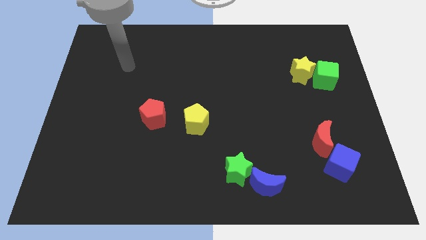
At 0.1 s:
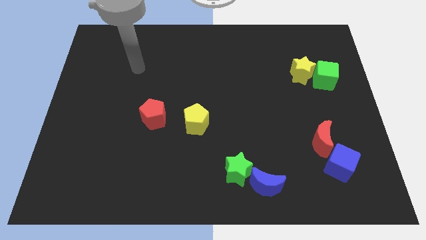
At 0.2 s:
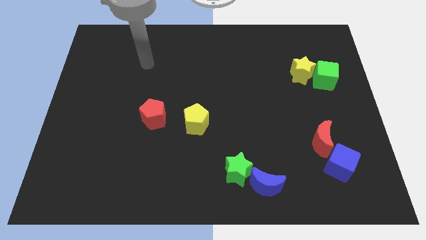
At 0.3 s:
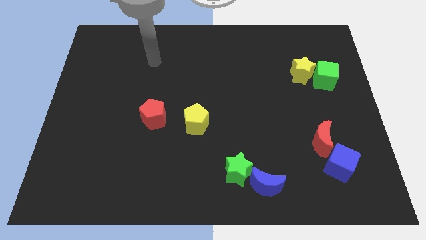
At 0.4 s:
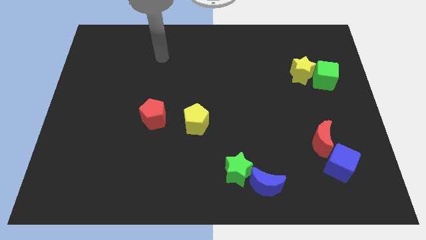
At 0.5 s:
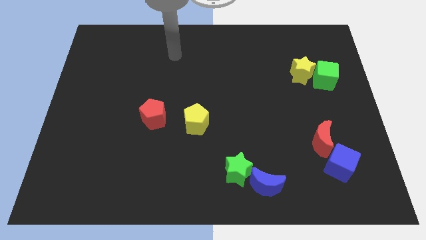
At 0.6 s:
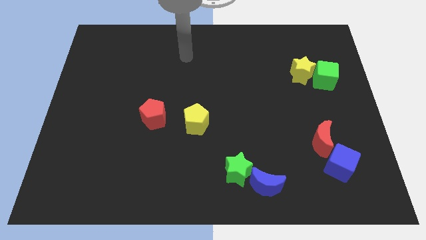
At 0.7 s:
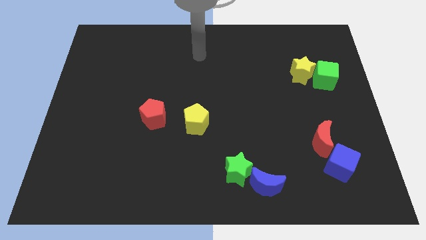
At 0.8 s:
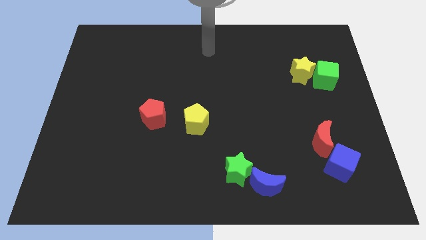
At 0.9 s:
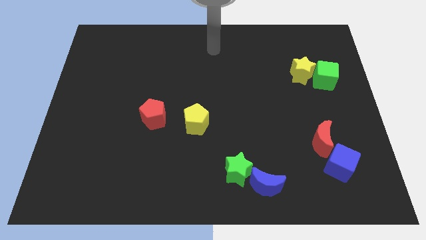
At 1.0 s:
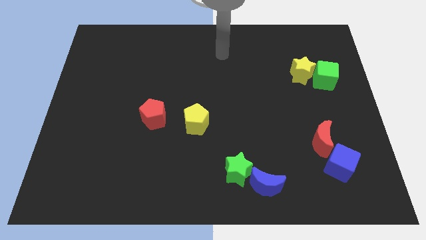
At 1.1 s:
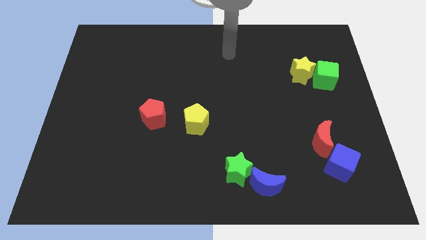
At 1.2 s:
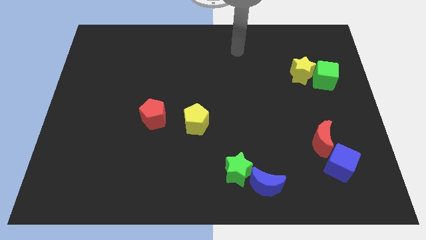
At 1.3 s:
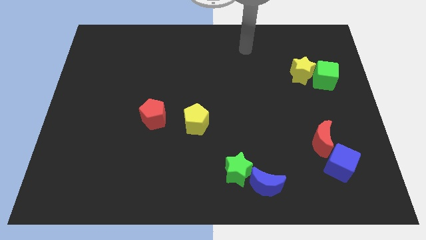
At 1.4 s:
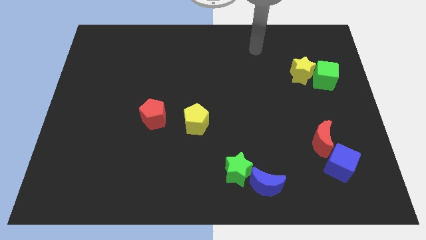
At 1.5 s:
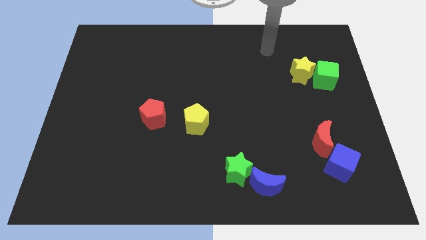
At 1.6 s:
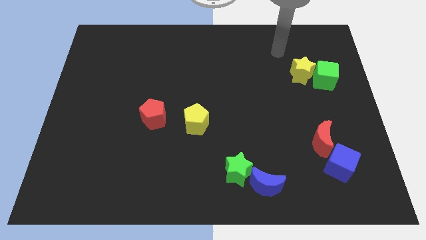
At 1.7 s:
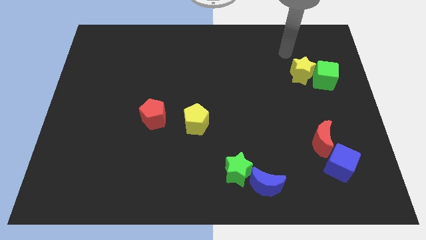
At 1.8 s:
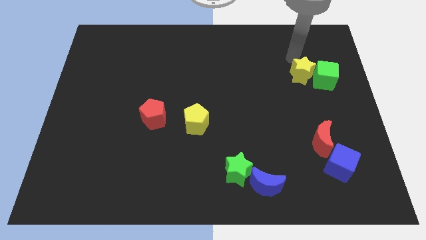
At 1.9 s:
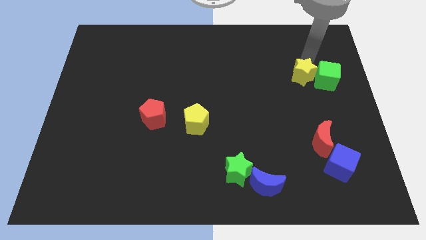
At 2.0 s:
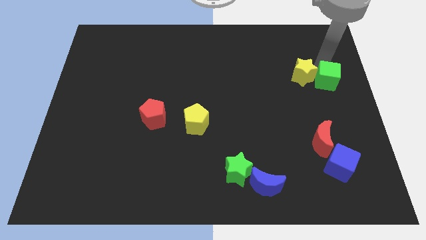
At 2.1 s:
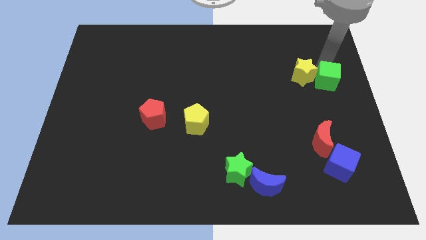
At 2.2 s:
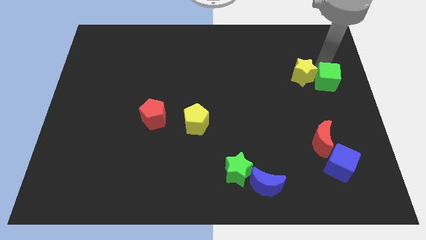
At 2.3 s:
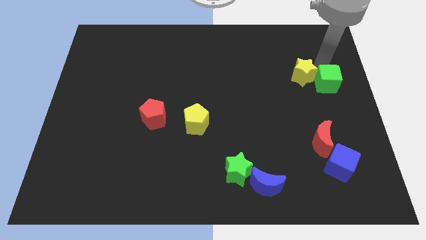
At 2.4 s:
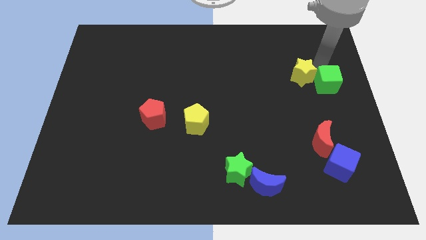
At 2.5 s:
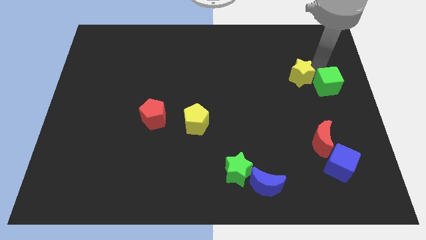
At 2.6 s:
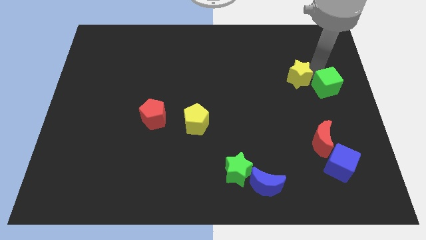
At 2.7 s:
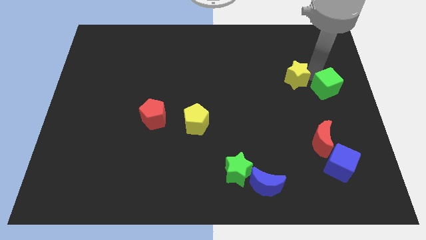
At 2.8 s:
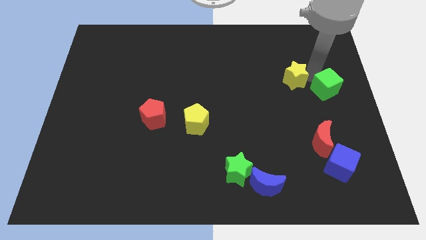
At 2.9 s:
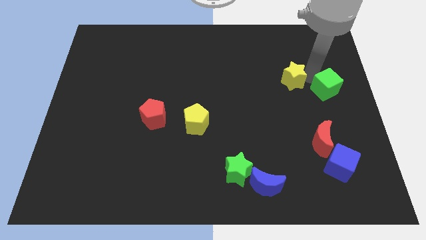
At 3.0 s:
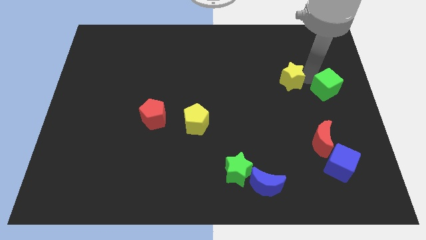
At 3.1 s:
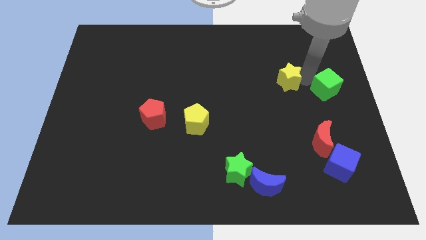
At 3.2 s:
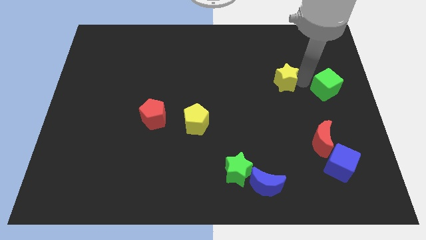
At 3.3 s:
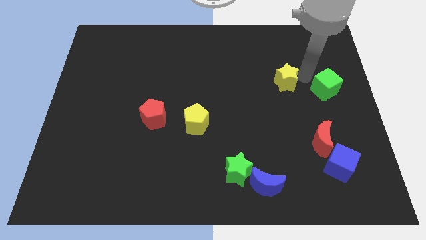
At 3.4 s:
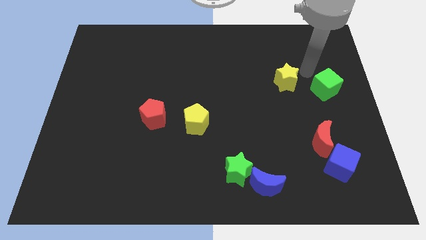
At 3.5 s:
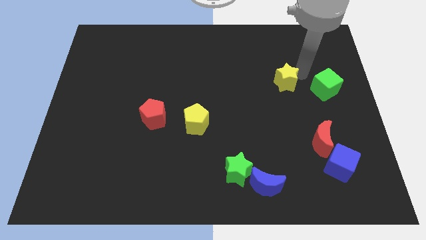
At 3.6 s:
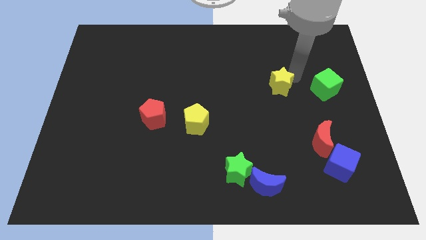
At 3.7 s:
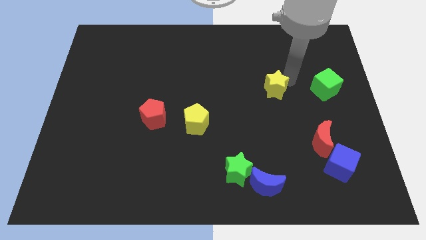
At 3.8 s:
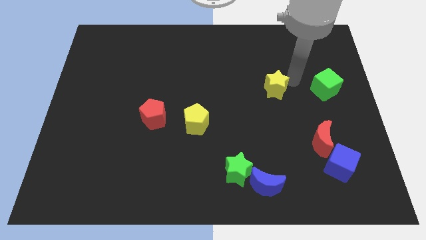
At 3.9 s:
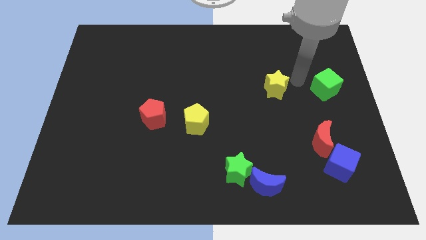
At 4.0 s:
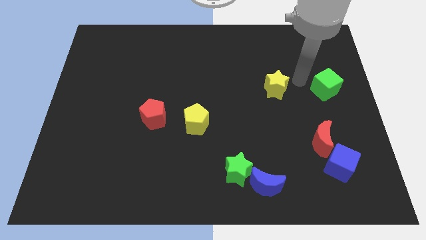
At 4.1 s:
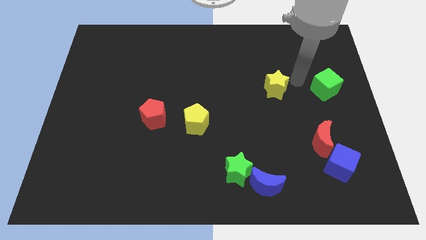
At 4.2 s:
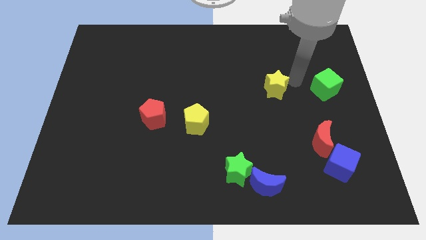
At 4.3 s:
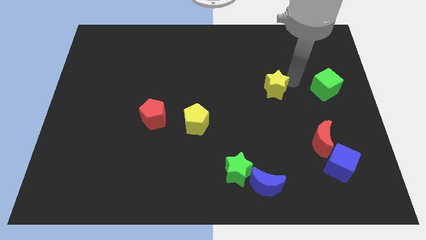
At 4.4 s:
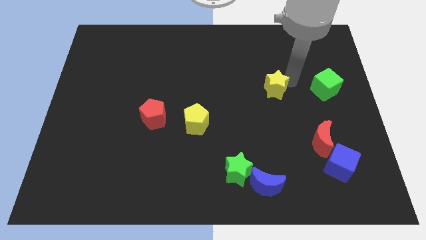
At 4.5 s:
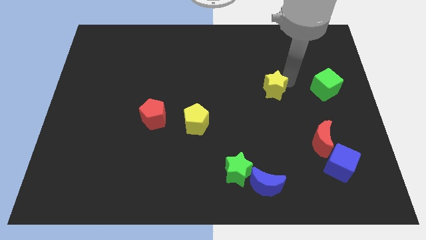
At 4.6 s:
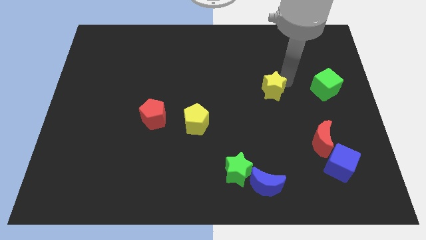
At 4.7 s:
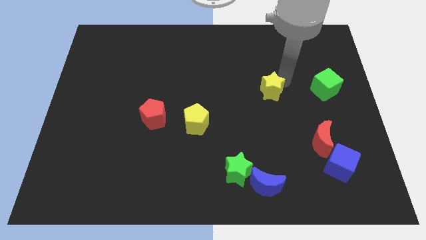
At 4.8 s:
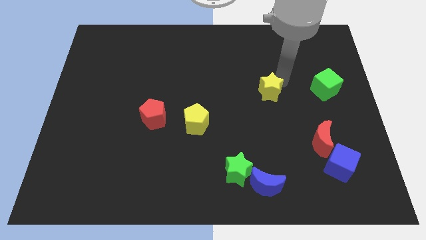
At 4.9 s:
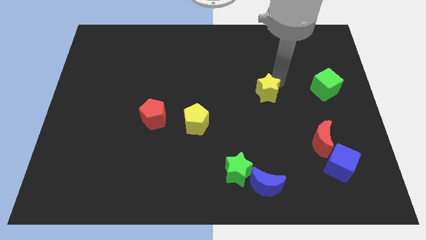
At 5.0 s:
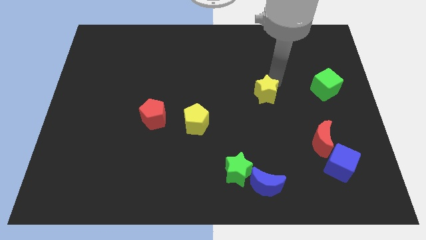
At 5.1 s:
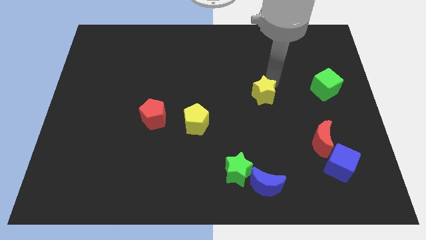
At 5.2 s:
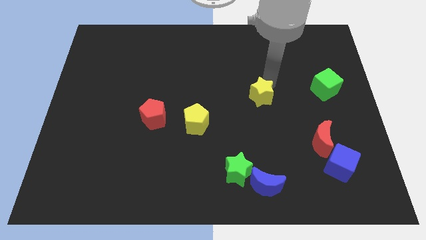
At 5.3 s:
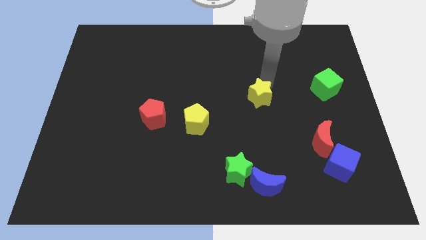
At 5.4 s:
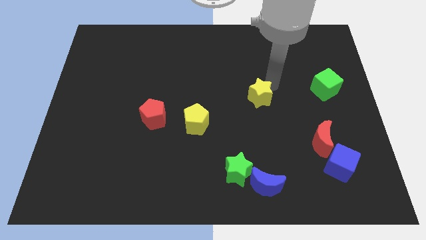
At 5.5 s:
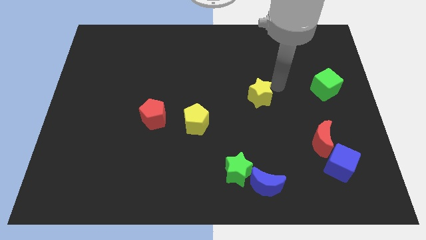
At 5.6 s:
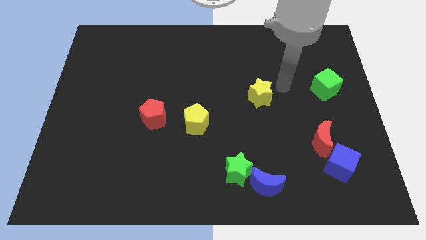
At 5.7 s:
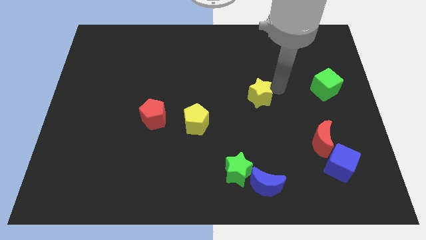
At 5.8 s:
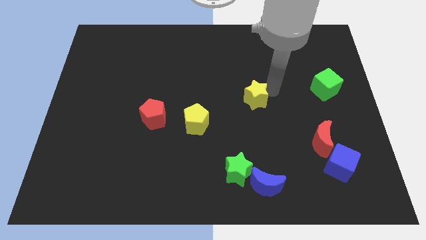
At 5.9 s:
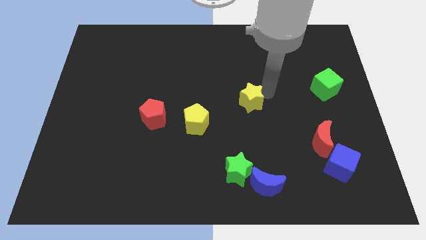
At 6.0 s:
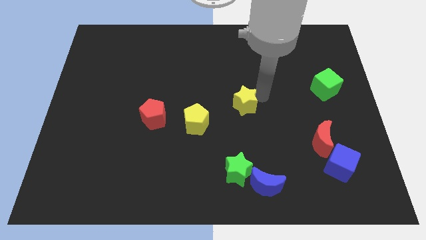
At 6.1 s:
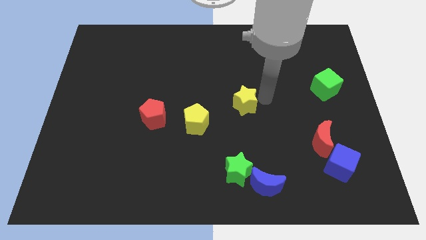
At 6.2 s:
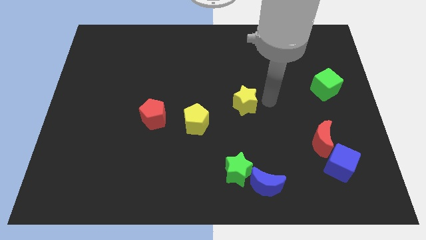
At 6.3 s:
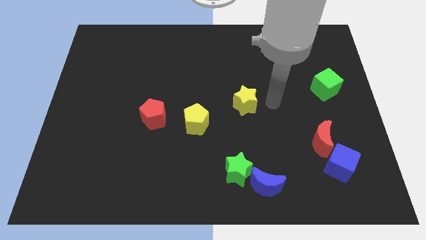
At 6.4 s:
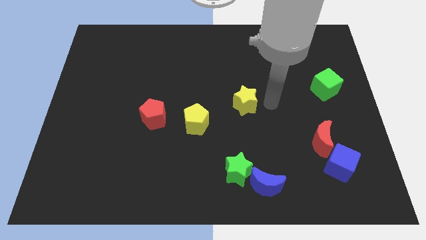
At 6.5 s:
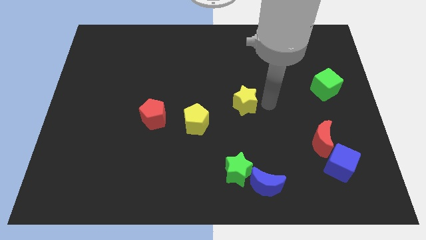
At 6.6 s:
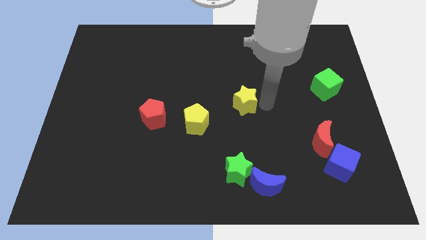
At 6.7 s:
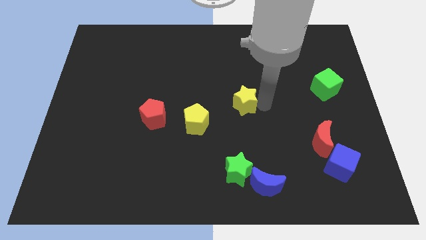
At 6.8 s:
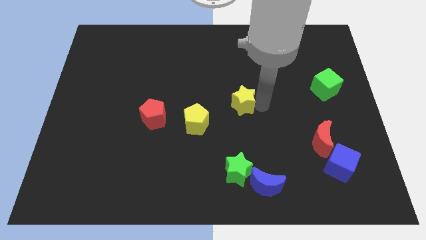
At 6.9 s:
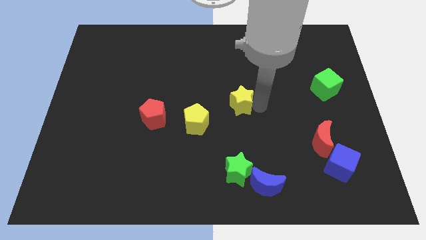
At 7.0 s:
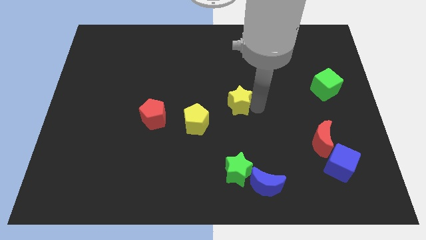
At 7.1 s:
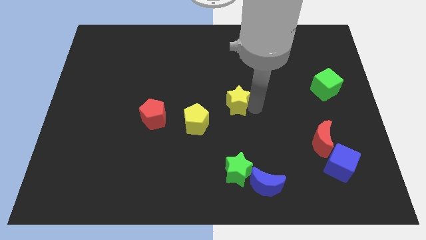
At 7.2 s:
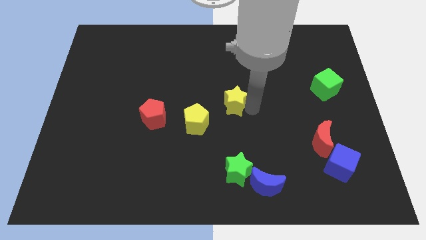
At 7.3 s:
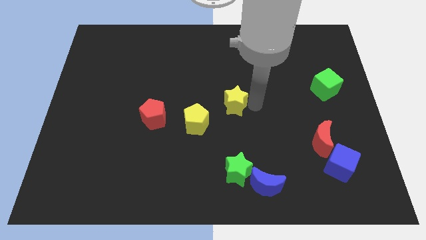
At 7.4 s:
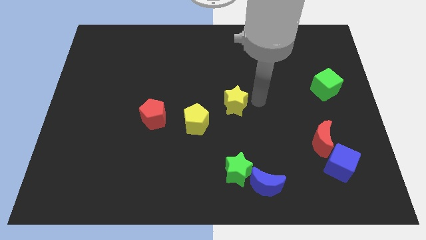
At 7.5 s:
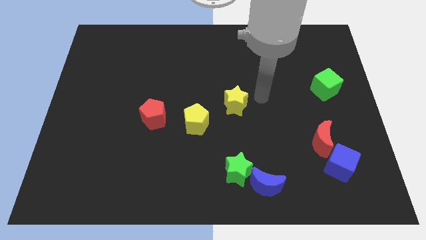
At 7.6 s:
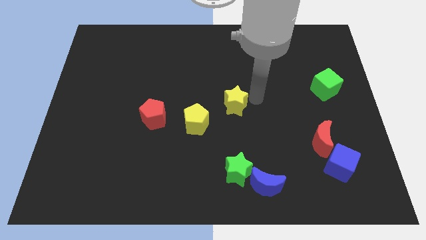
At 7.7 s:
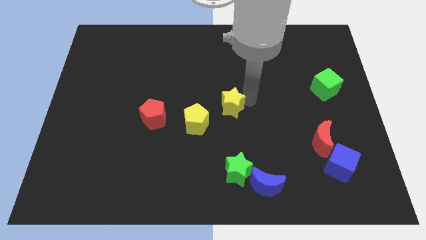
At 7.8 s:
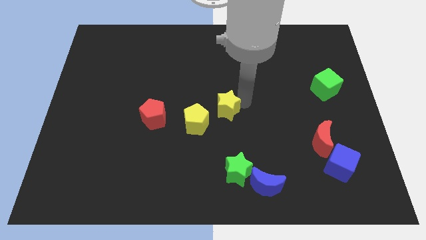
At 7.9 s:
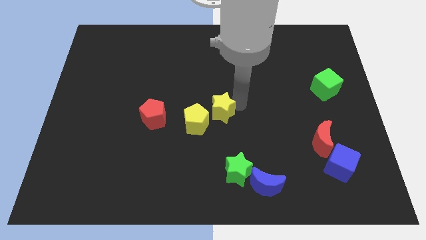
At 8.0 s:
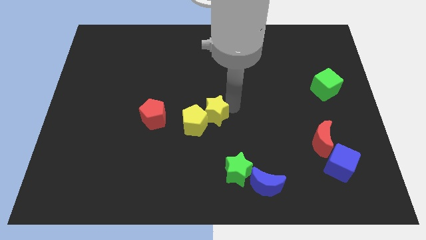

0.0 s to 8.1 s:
slide the yellow star towards the yellow pentagon
